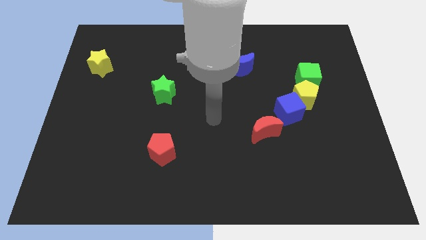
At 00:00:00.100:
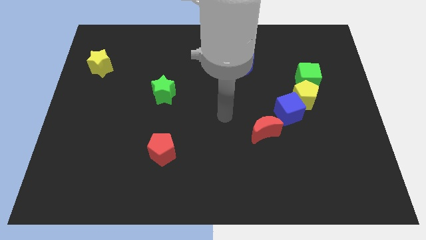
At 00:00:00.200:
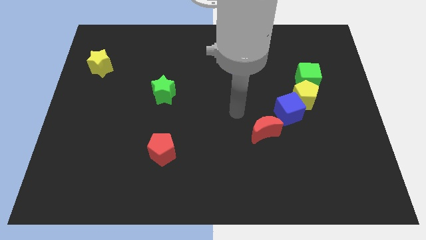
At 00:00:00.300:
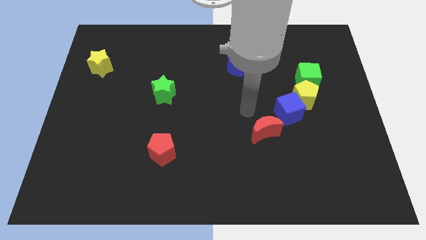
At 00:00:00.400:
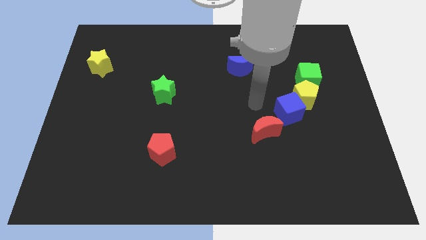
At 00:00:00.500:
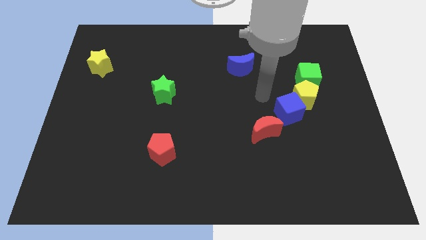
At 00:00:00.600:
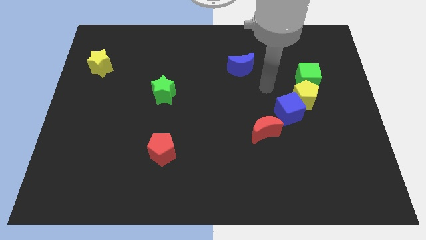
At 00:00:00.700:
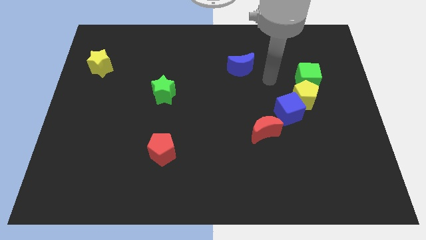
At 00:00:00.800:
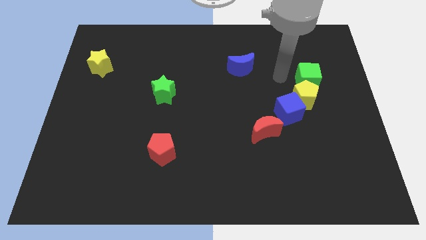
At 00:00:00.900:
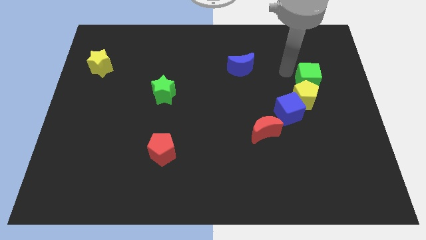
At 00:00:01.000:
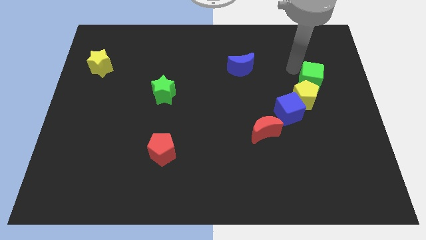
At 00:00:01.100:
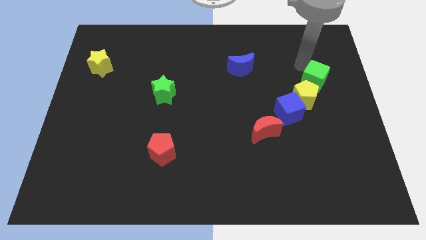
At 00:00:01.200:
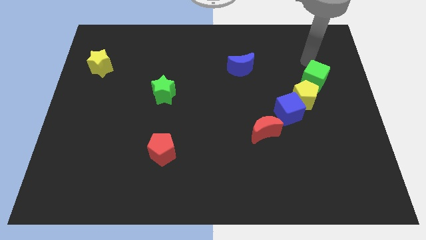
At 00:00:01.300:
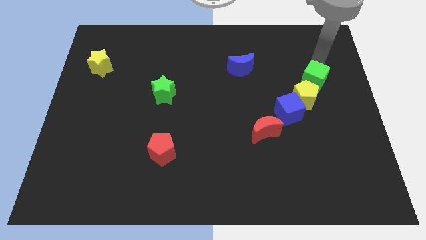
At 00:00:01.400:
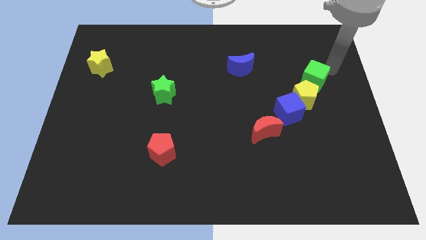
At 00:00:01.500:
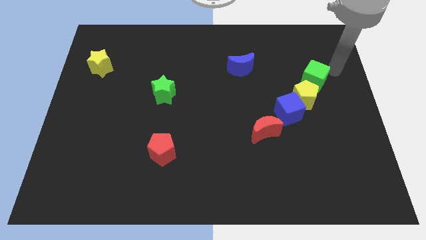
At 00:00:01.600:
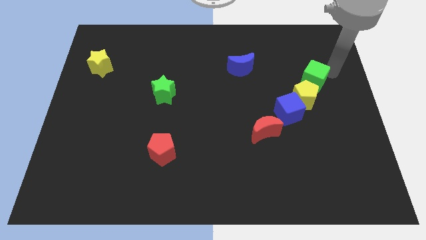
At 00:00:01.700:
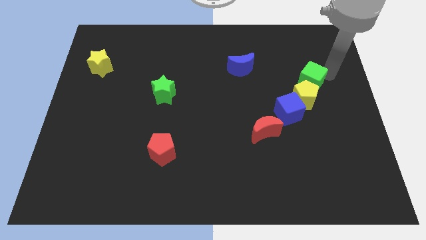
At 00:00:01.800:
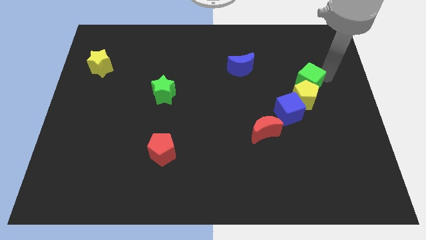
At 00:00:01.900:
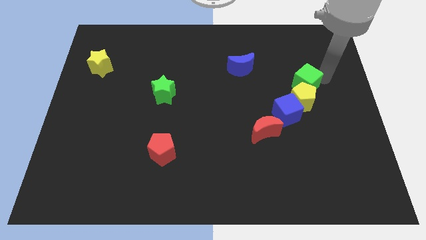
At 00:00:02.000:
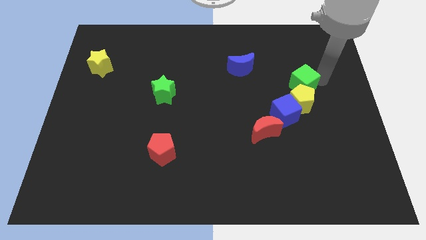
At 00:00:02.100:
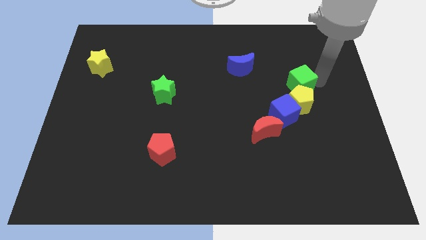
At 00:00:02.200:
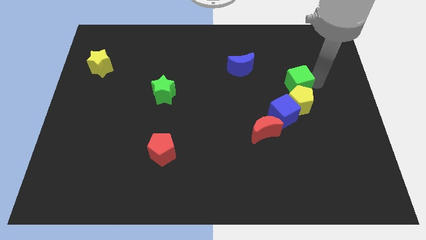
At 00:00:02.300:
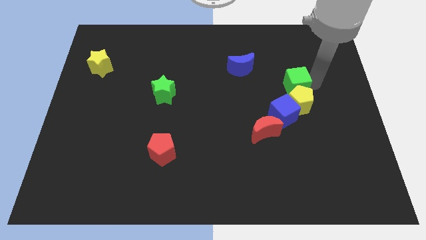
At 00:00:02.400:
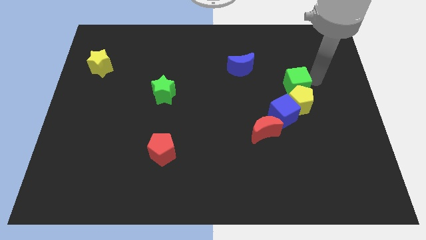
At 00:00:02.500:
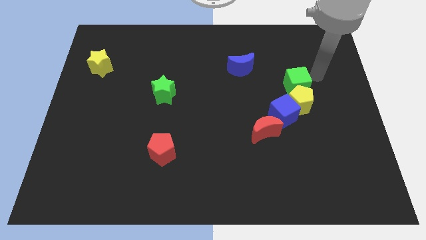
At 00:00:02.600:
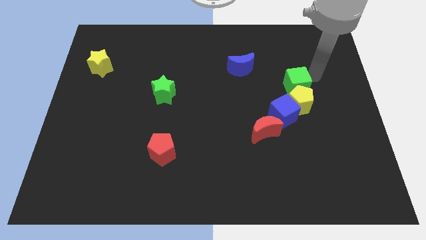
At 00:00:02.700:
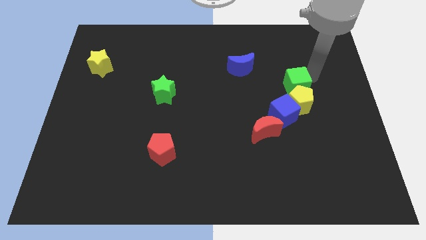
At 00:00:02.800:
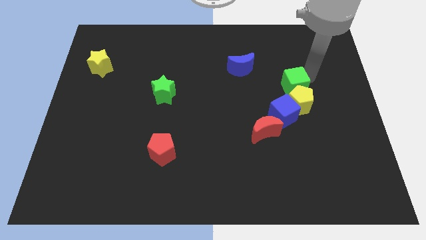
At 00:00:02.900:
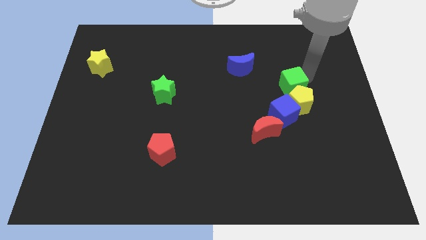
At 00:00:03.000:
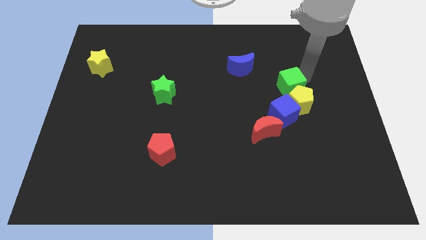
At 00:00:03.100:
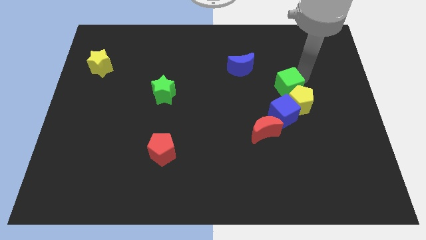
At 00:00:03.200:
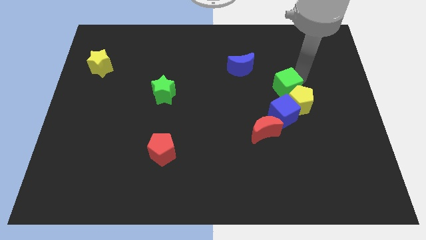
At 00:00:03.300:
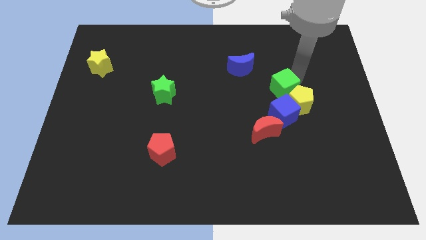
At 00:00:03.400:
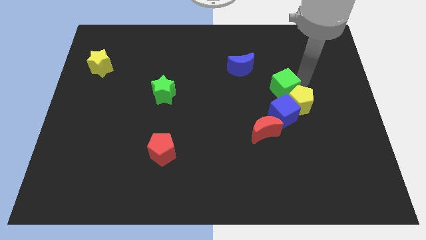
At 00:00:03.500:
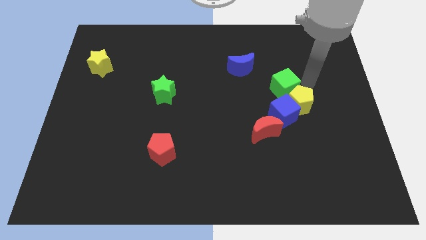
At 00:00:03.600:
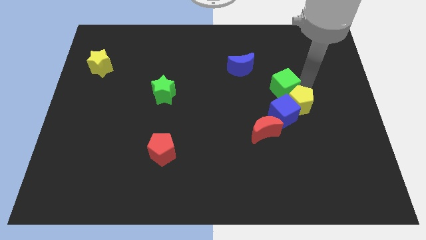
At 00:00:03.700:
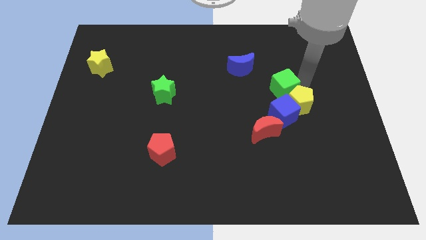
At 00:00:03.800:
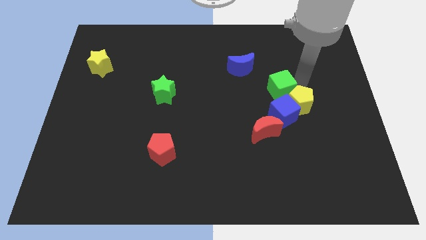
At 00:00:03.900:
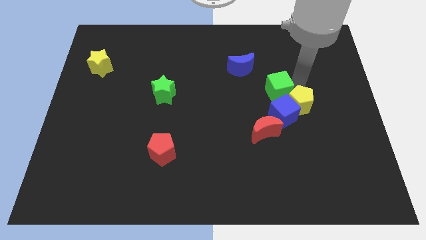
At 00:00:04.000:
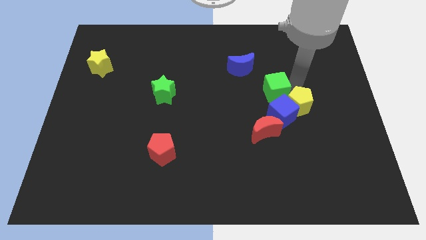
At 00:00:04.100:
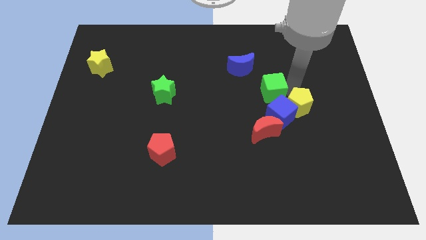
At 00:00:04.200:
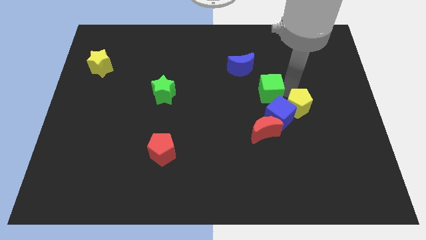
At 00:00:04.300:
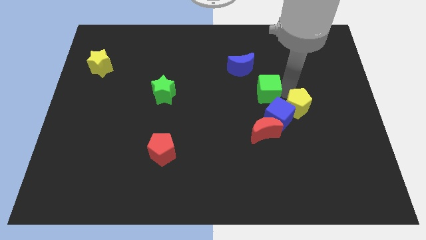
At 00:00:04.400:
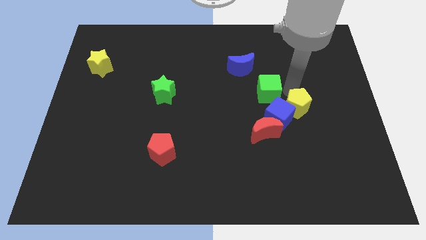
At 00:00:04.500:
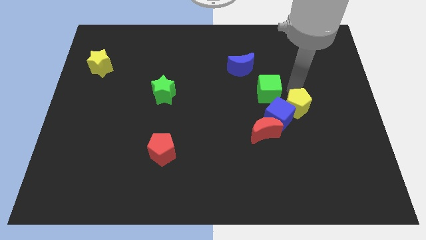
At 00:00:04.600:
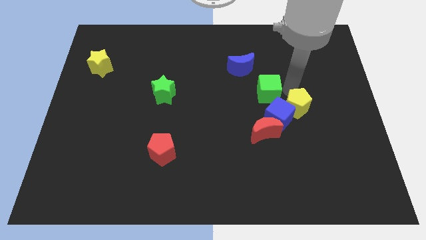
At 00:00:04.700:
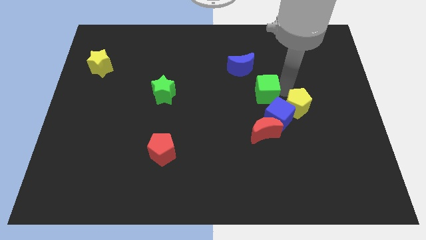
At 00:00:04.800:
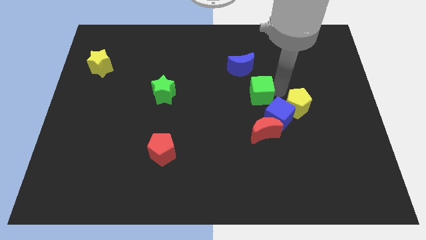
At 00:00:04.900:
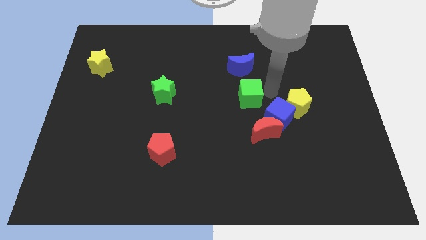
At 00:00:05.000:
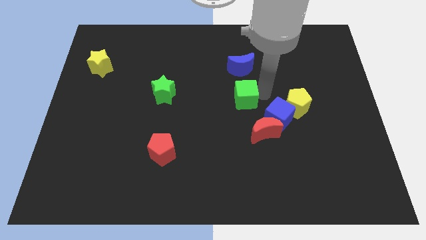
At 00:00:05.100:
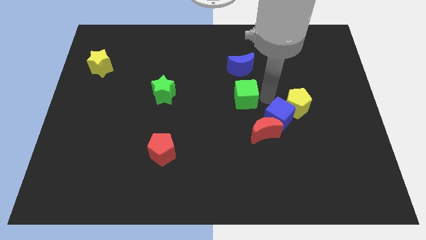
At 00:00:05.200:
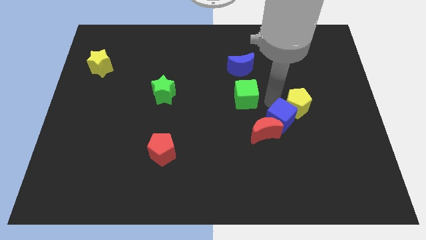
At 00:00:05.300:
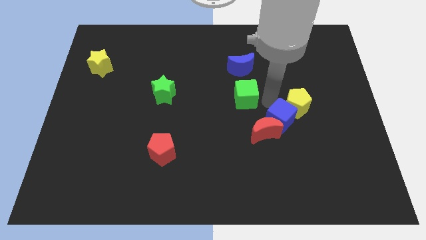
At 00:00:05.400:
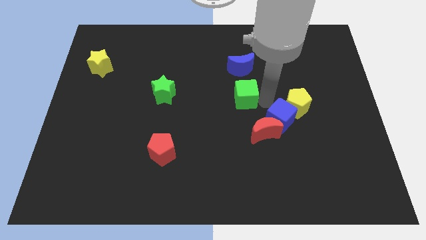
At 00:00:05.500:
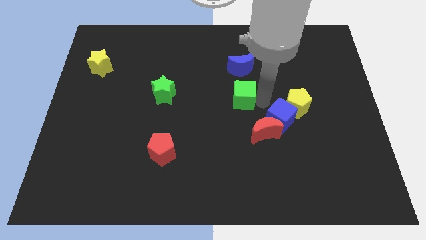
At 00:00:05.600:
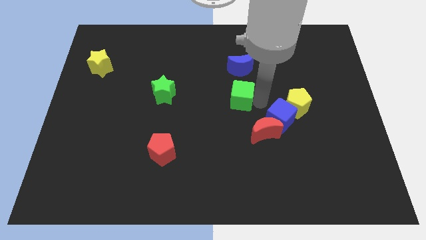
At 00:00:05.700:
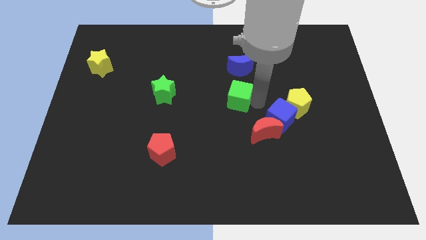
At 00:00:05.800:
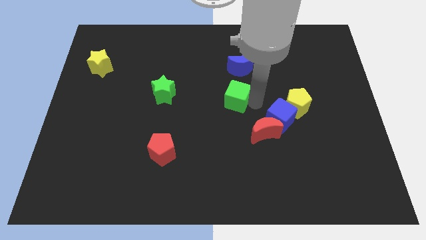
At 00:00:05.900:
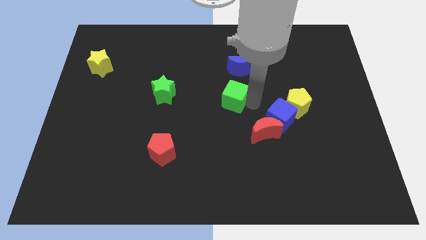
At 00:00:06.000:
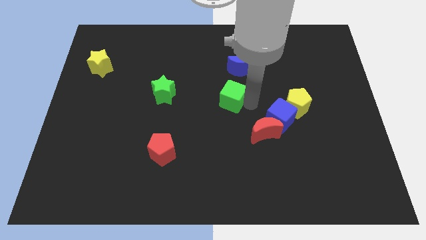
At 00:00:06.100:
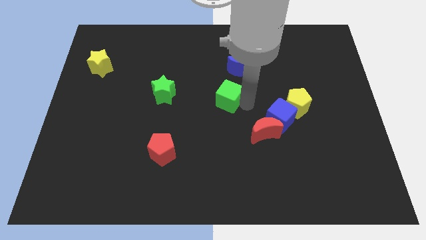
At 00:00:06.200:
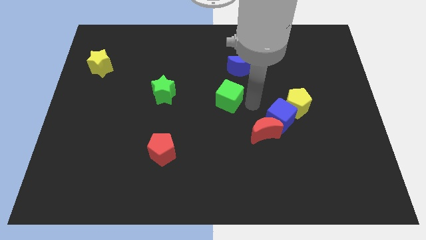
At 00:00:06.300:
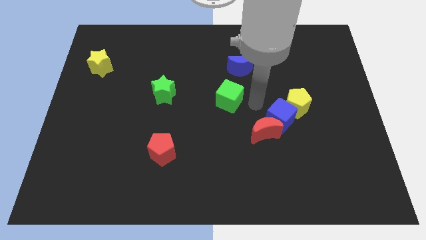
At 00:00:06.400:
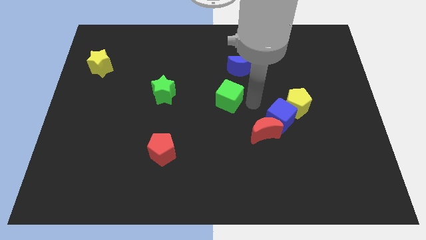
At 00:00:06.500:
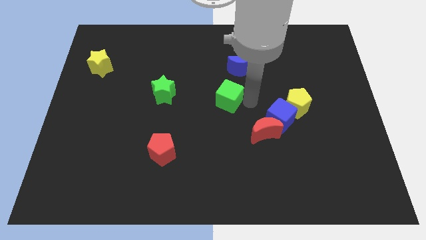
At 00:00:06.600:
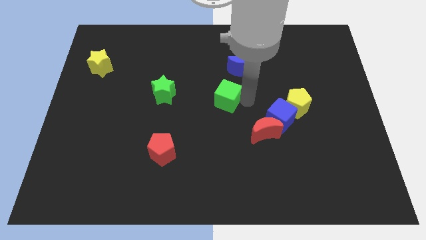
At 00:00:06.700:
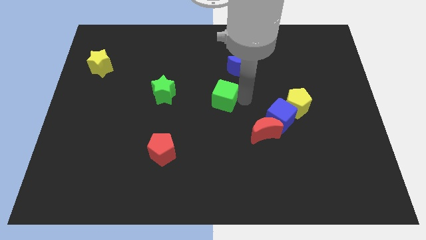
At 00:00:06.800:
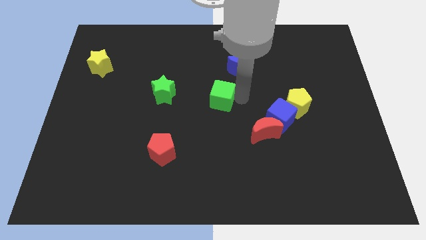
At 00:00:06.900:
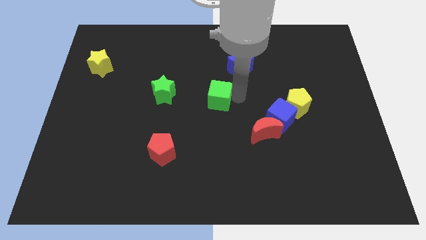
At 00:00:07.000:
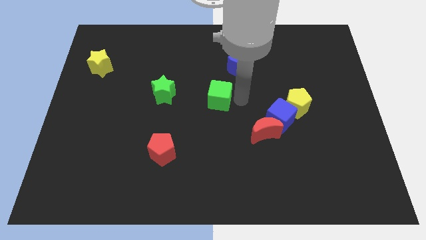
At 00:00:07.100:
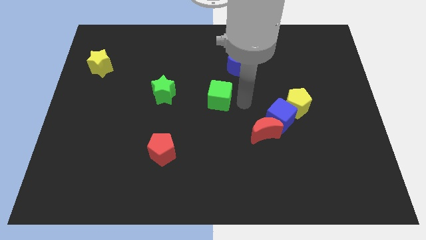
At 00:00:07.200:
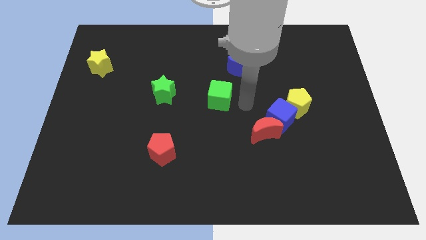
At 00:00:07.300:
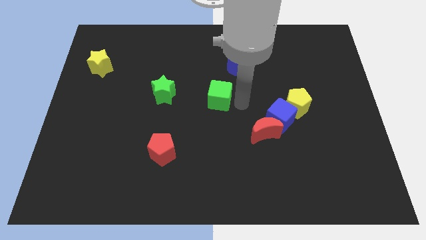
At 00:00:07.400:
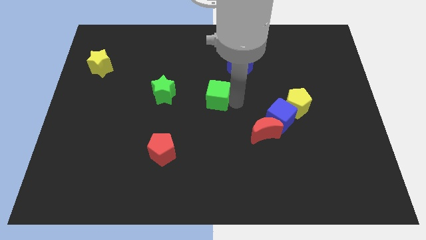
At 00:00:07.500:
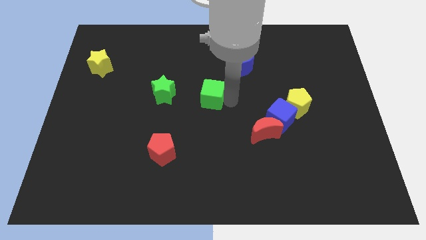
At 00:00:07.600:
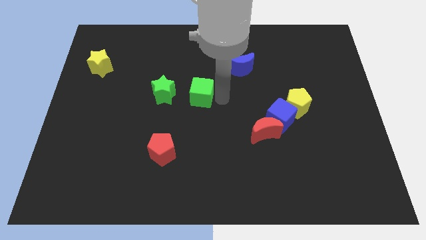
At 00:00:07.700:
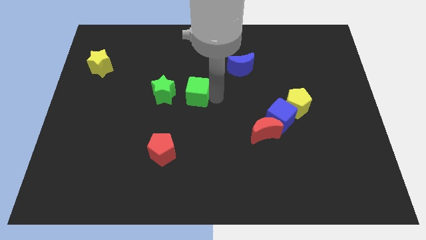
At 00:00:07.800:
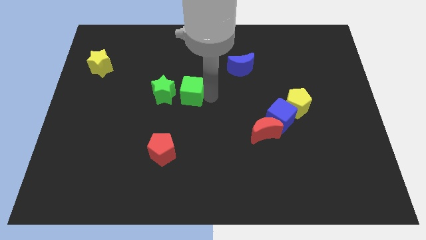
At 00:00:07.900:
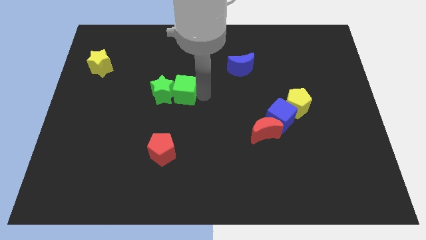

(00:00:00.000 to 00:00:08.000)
move the green cube to the green star
